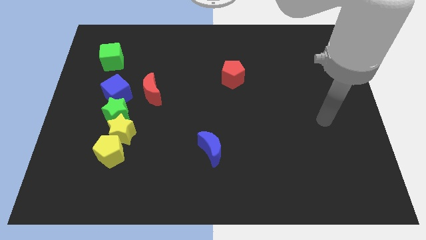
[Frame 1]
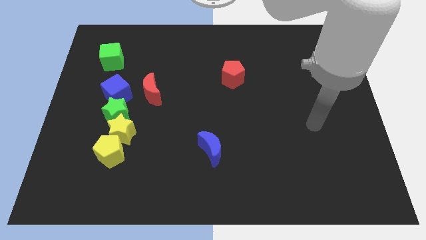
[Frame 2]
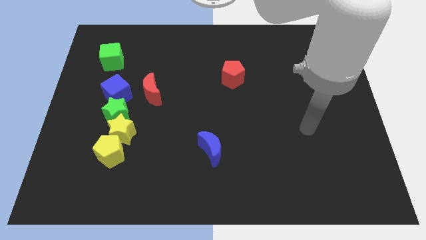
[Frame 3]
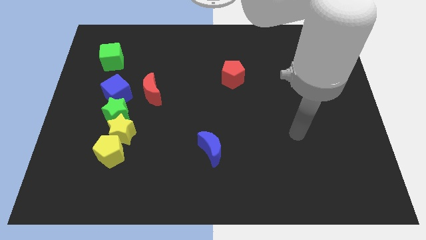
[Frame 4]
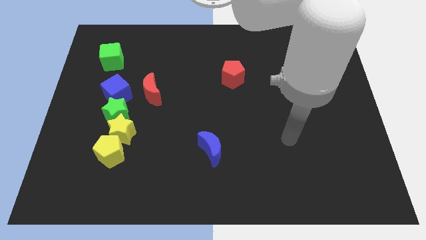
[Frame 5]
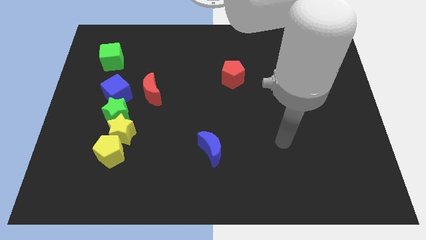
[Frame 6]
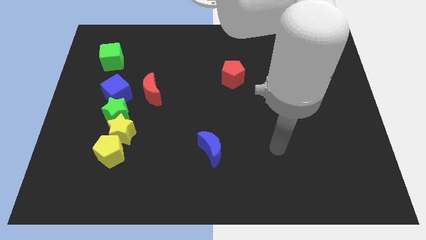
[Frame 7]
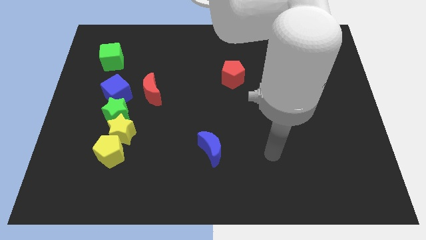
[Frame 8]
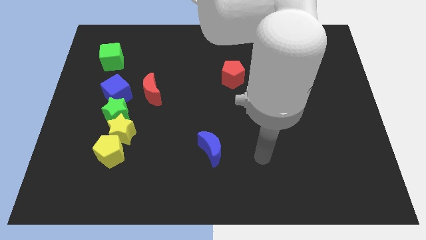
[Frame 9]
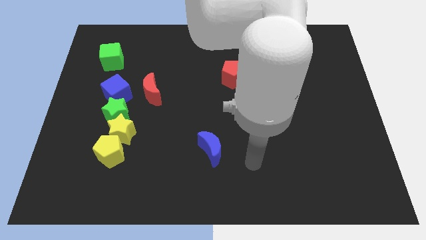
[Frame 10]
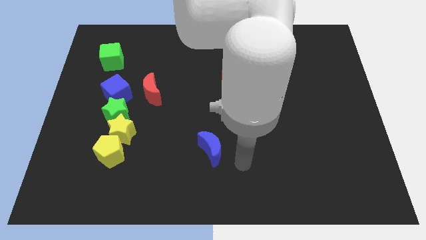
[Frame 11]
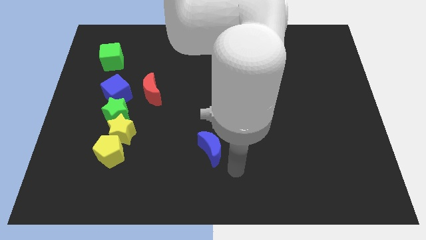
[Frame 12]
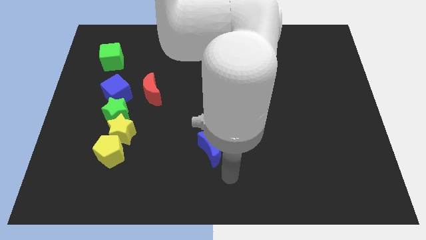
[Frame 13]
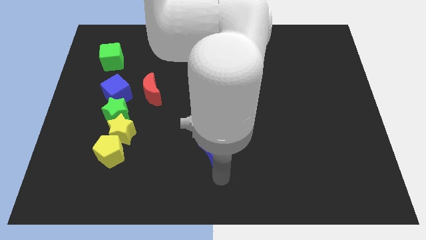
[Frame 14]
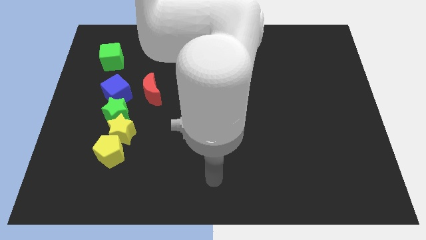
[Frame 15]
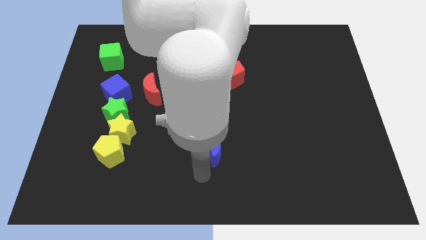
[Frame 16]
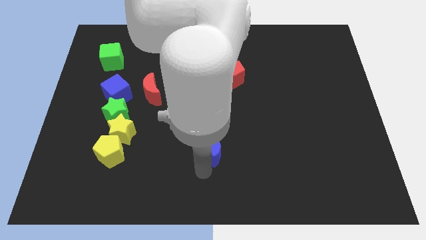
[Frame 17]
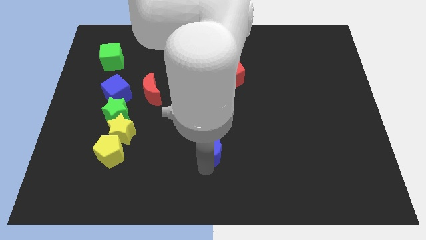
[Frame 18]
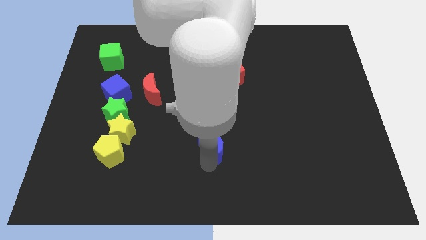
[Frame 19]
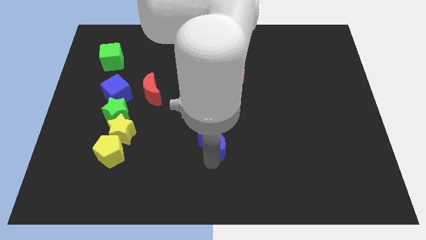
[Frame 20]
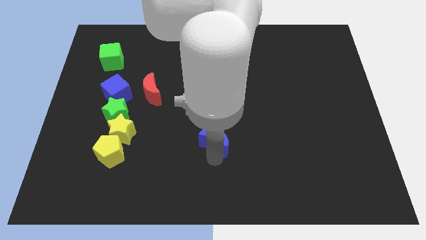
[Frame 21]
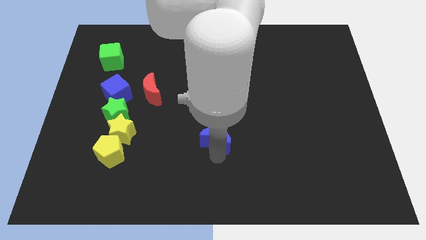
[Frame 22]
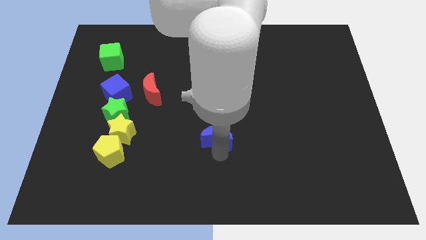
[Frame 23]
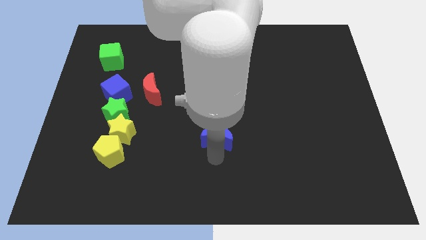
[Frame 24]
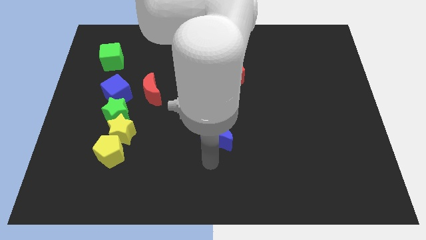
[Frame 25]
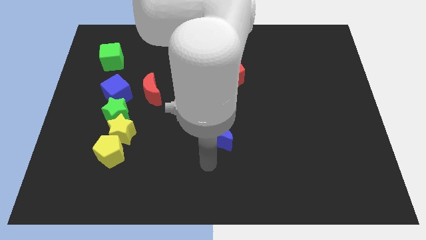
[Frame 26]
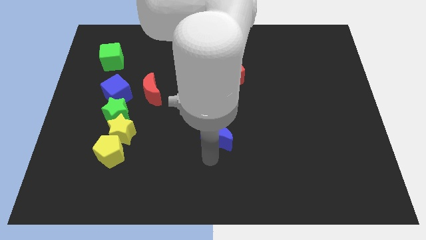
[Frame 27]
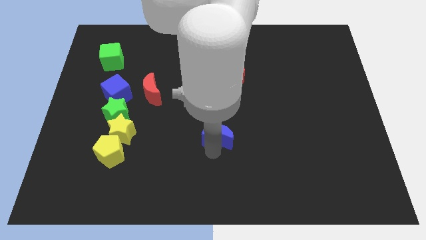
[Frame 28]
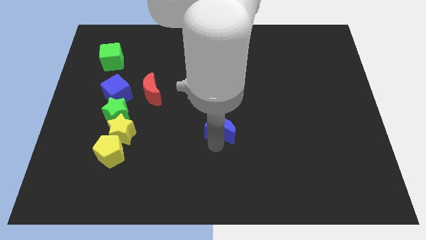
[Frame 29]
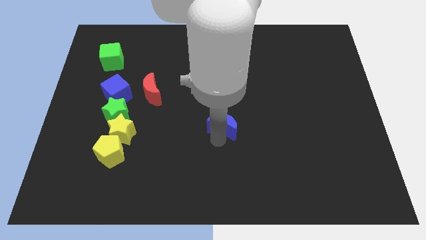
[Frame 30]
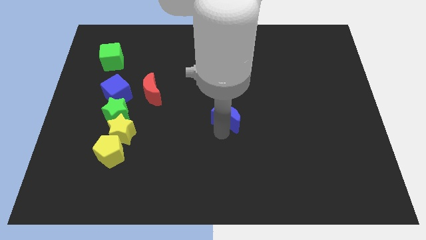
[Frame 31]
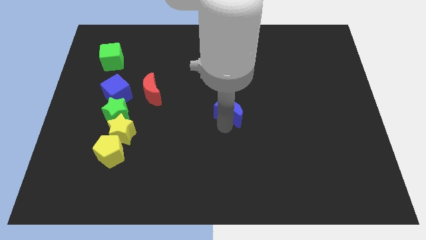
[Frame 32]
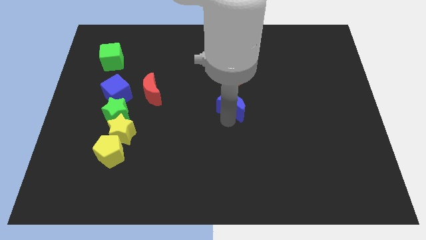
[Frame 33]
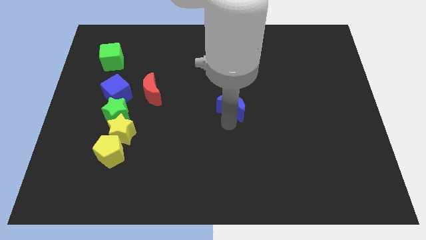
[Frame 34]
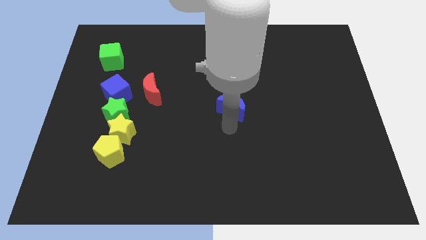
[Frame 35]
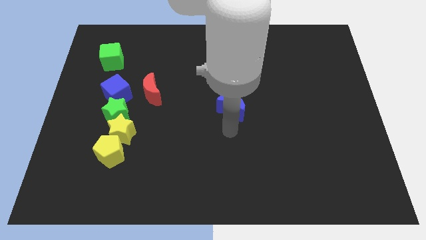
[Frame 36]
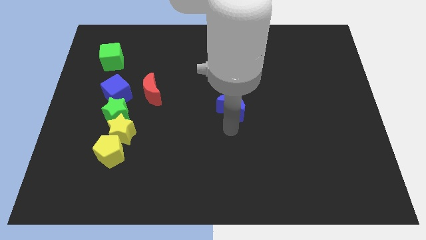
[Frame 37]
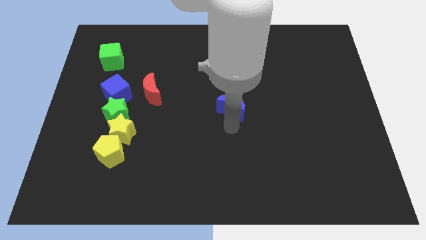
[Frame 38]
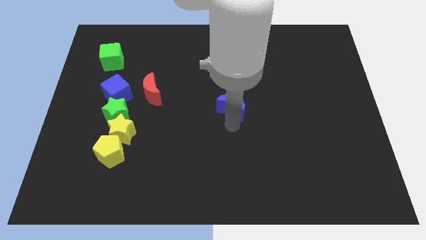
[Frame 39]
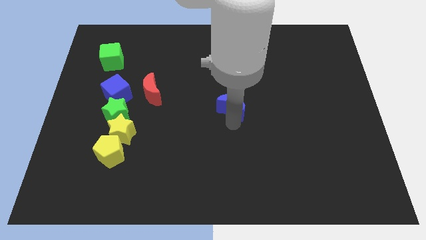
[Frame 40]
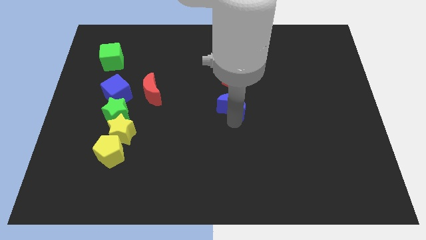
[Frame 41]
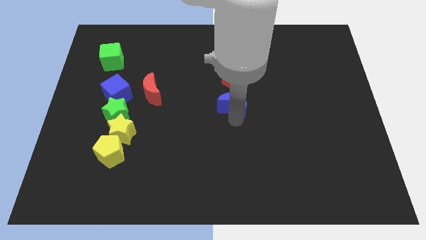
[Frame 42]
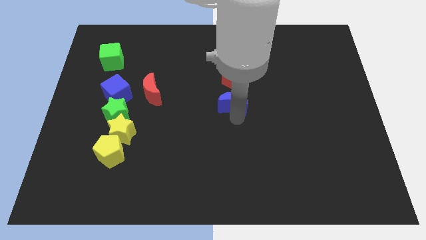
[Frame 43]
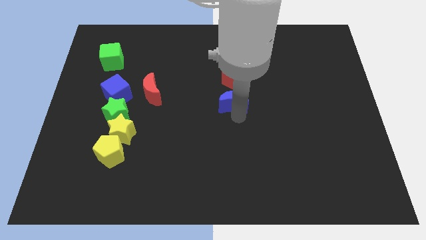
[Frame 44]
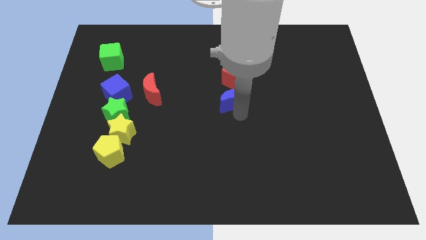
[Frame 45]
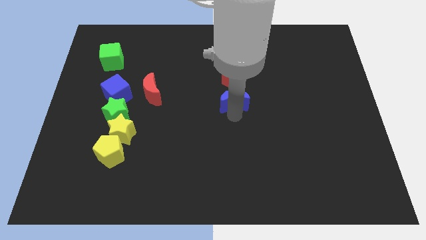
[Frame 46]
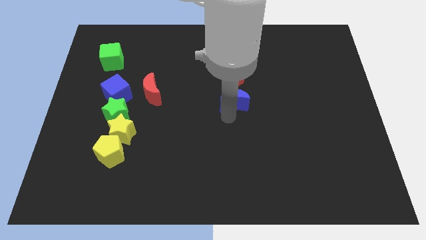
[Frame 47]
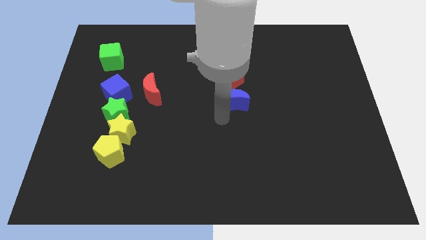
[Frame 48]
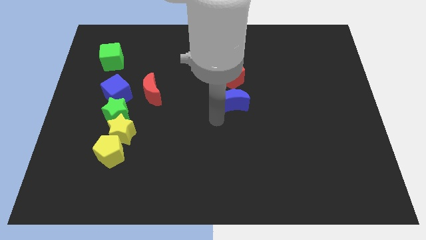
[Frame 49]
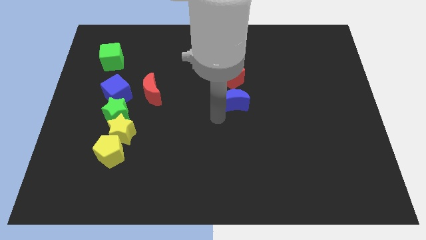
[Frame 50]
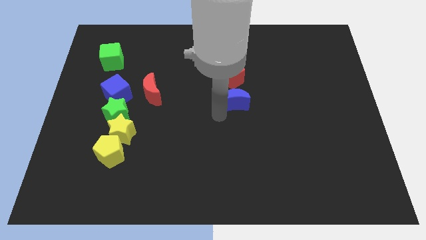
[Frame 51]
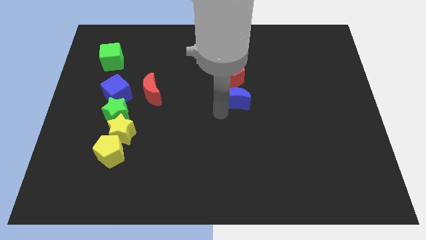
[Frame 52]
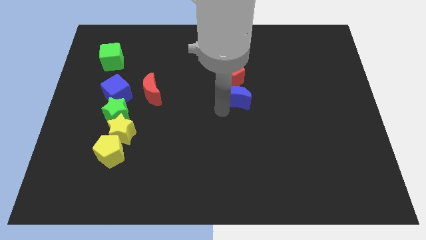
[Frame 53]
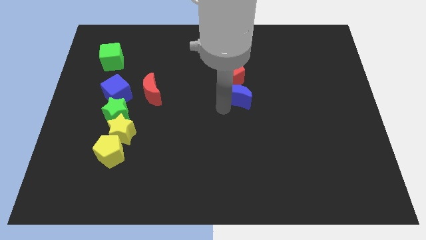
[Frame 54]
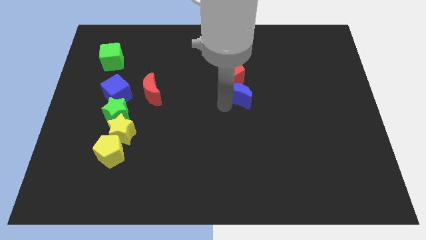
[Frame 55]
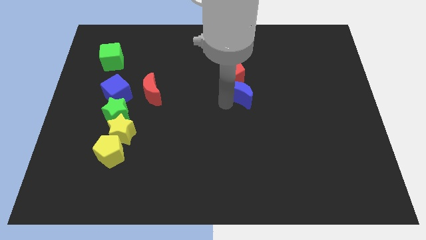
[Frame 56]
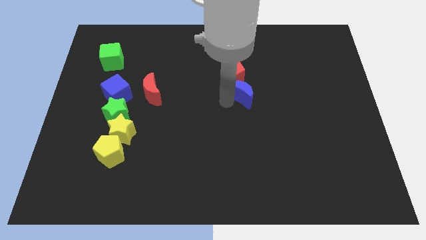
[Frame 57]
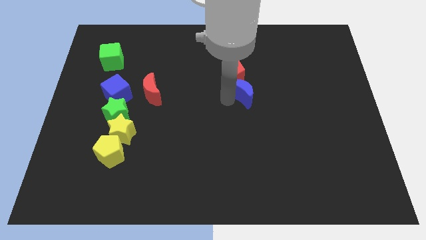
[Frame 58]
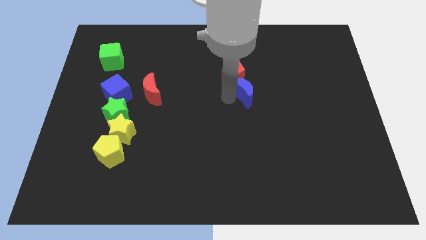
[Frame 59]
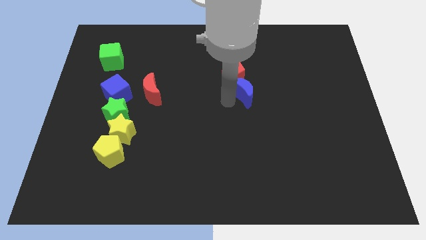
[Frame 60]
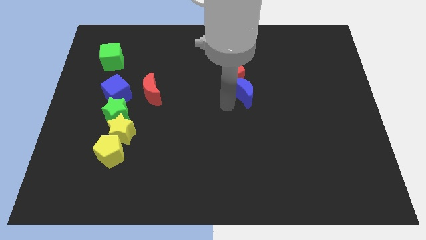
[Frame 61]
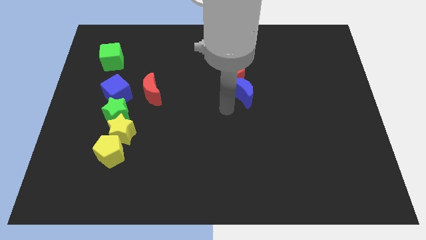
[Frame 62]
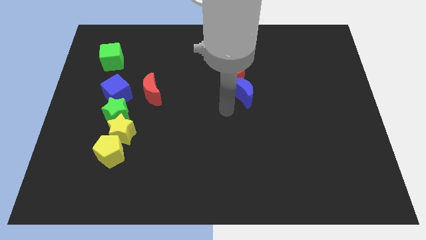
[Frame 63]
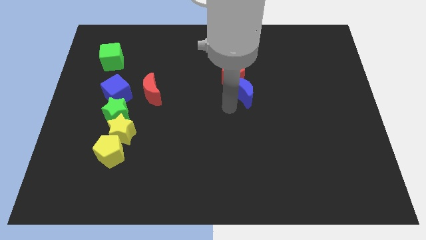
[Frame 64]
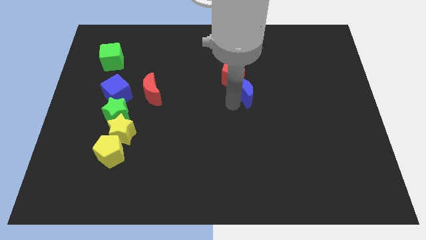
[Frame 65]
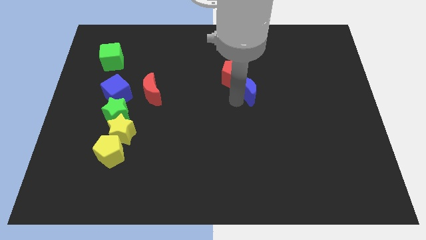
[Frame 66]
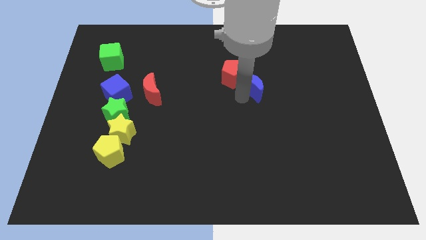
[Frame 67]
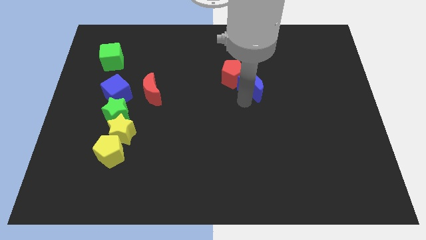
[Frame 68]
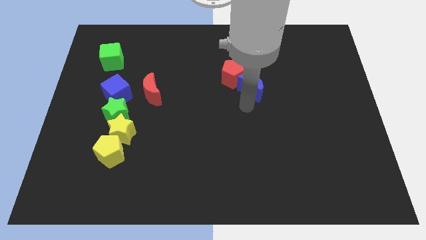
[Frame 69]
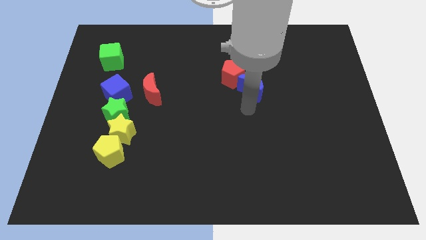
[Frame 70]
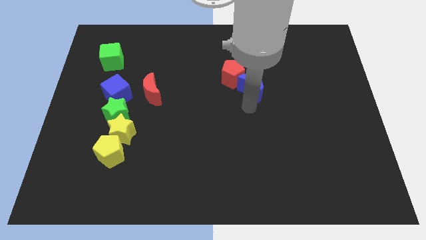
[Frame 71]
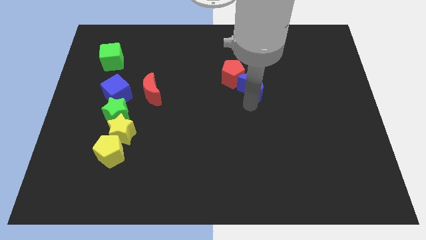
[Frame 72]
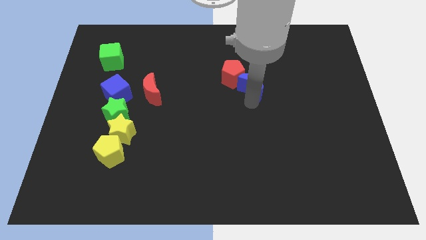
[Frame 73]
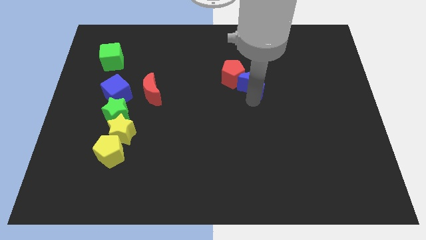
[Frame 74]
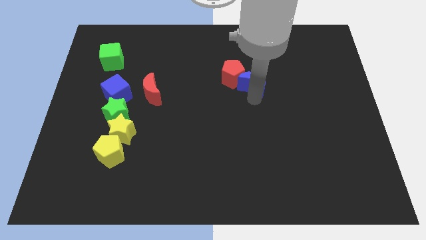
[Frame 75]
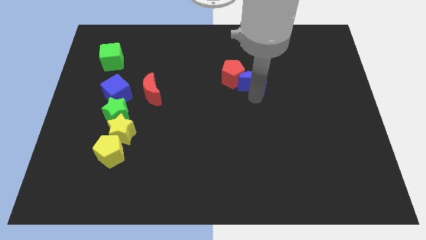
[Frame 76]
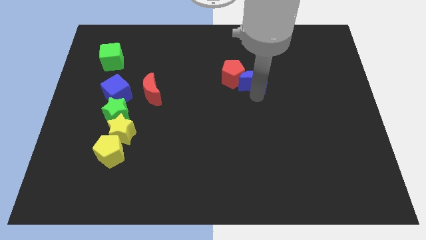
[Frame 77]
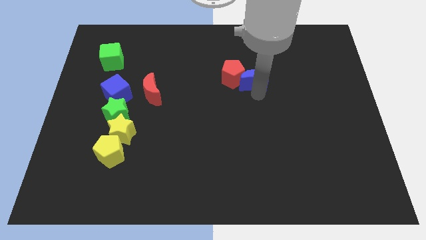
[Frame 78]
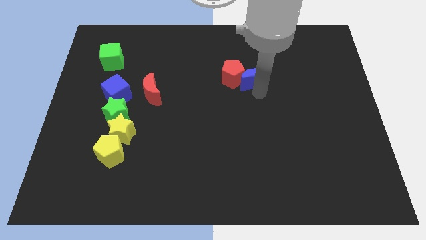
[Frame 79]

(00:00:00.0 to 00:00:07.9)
push the blue moon diagonally up and to the right of the red pentagon
